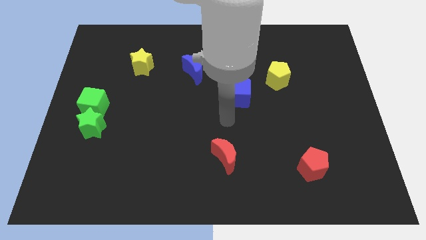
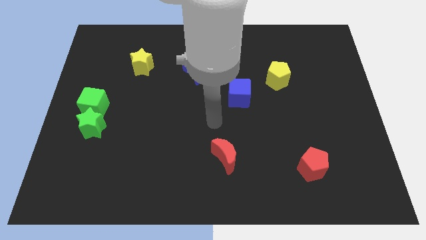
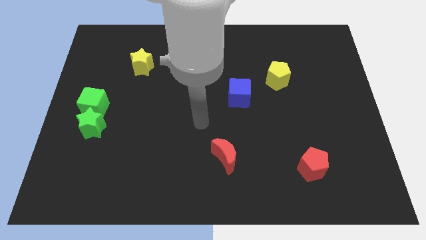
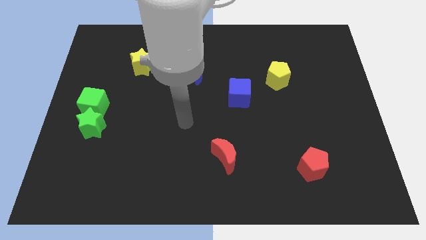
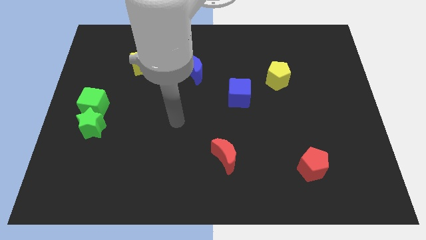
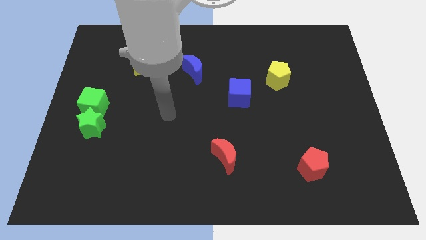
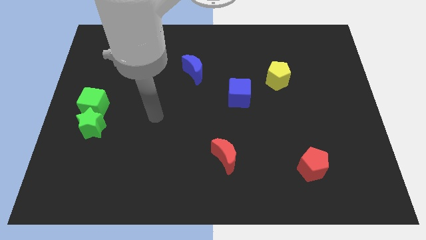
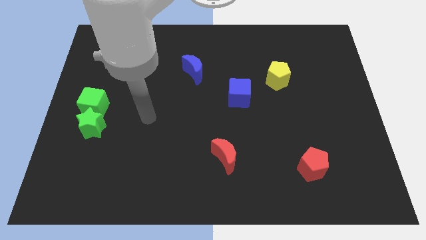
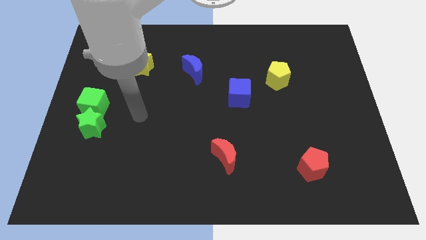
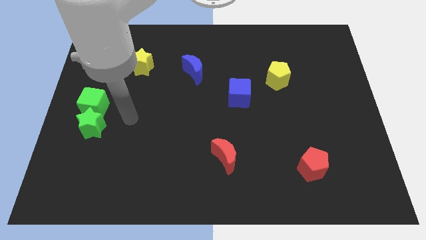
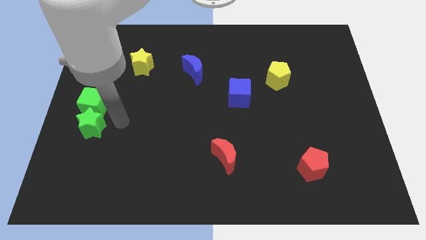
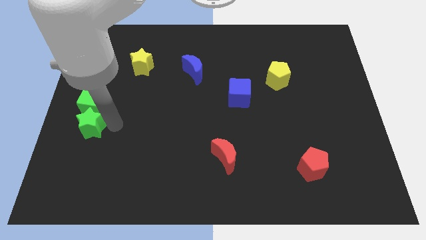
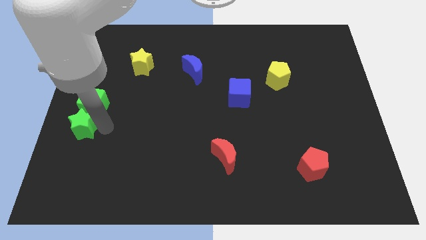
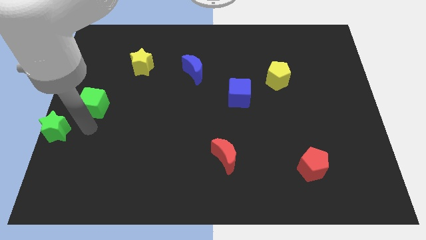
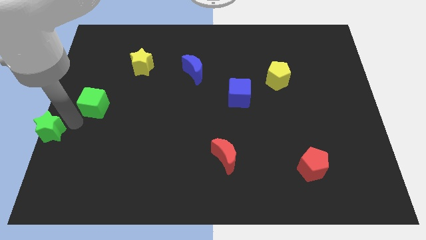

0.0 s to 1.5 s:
separate the green cube from the green star

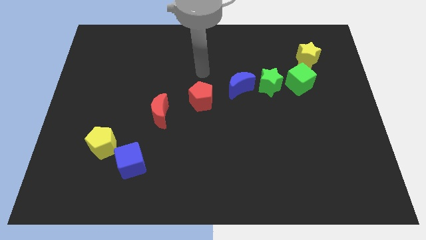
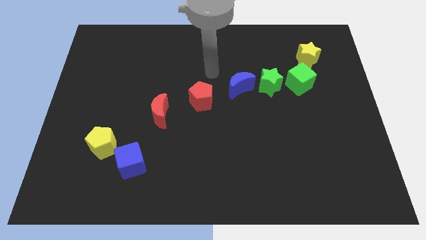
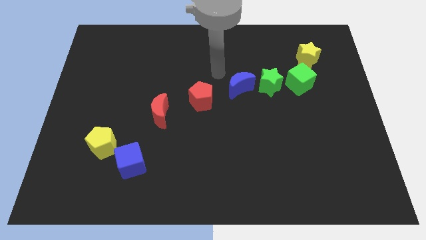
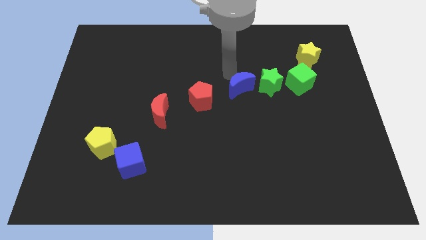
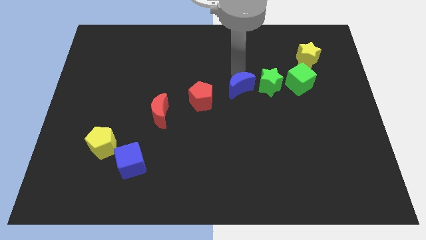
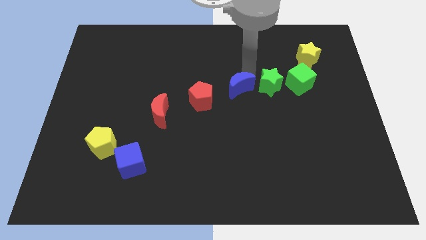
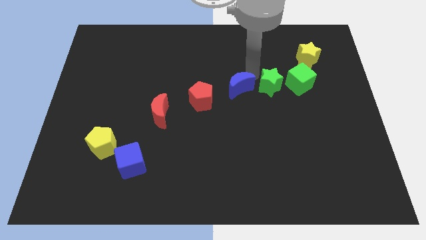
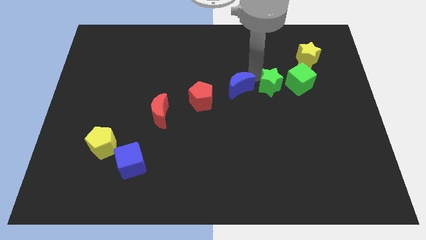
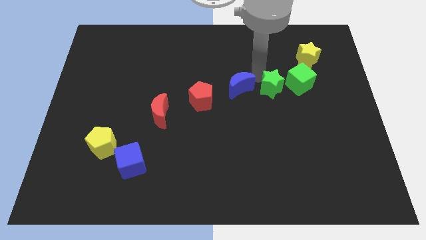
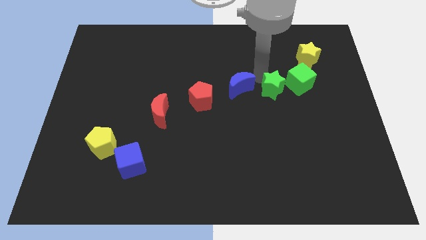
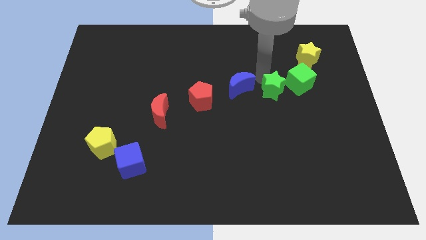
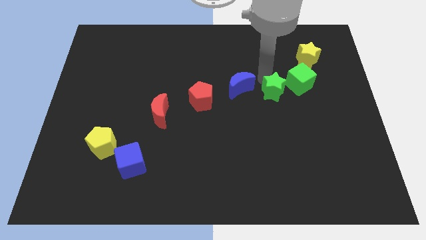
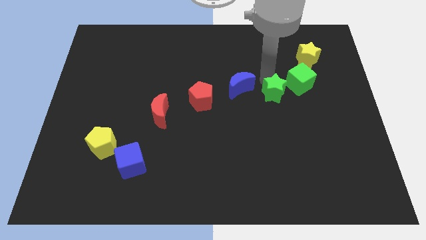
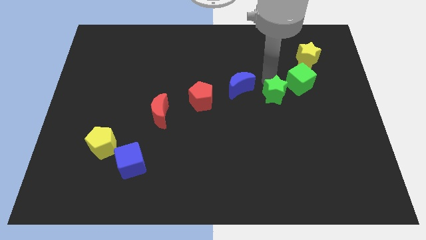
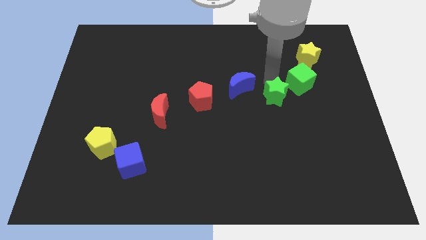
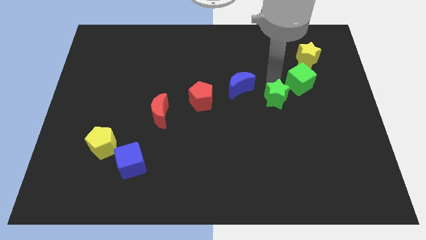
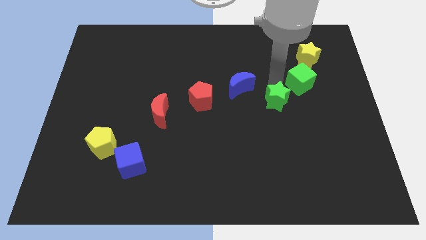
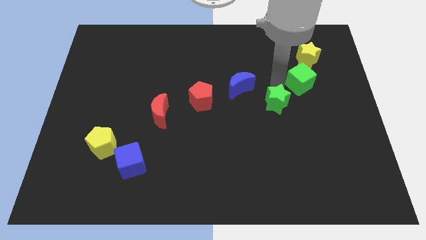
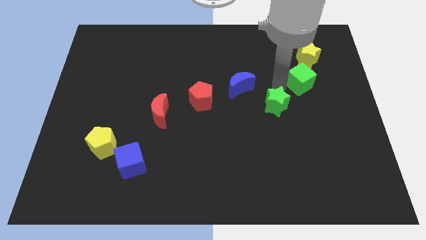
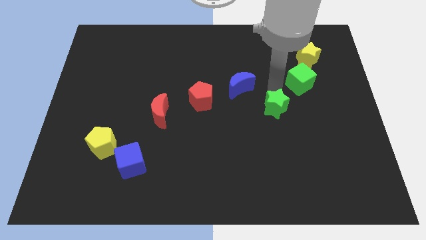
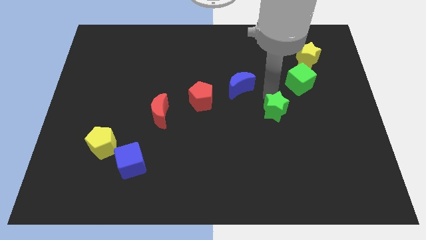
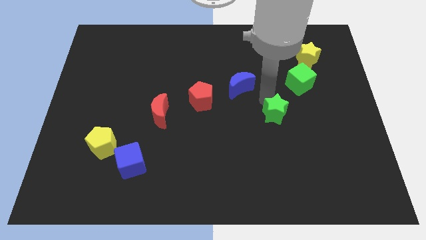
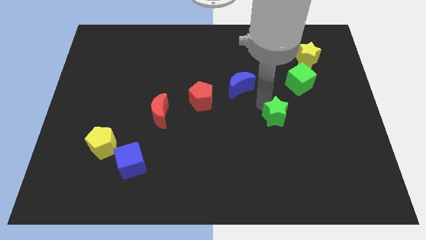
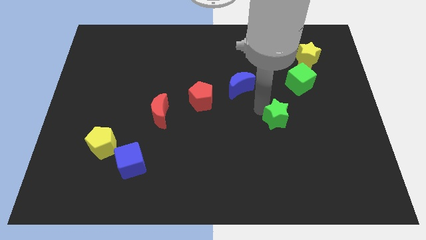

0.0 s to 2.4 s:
pull the green star apart from the green cube and blue moon

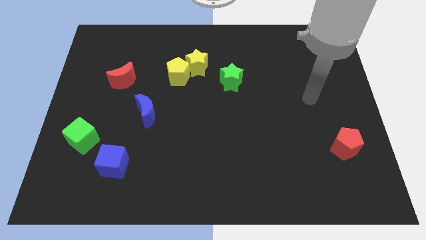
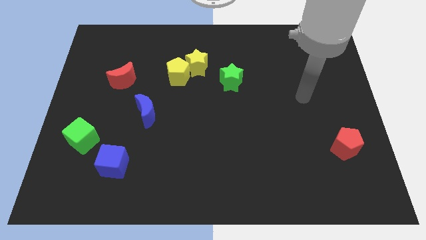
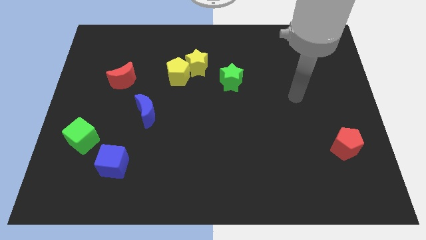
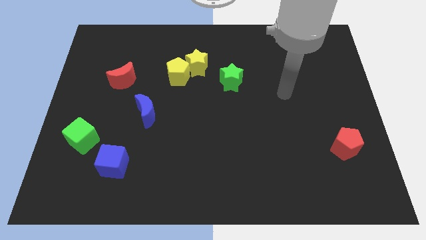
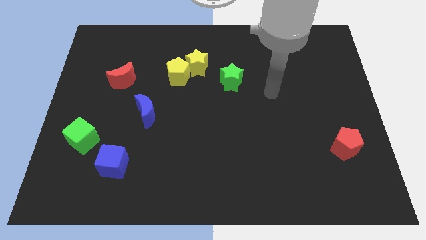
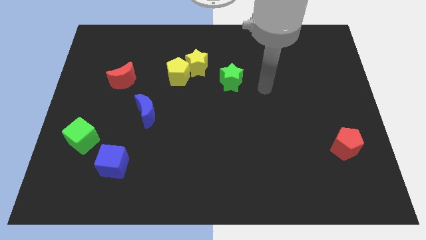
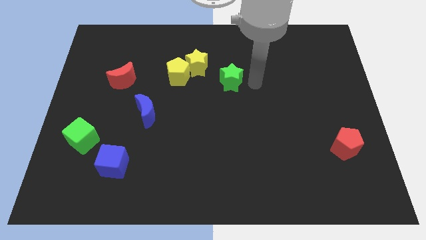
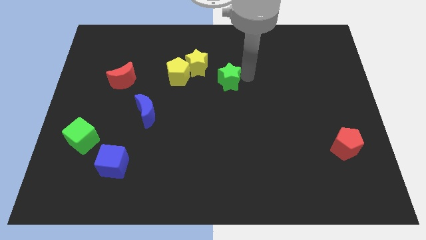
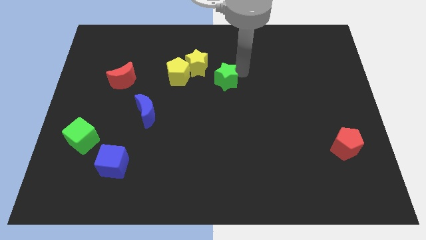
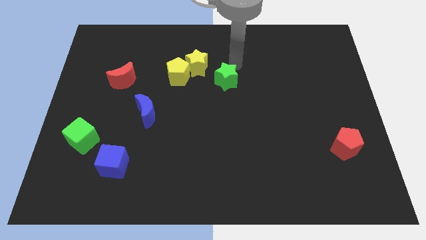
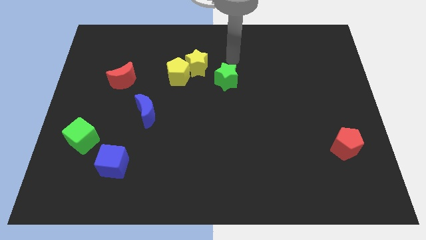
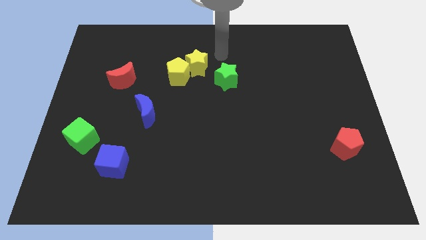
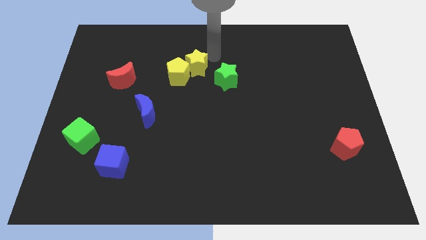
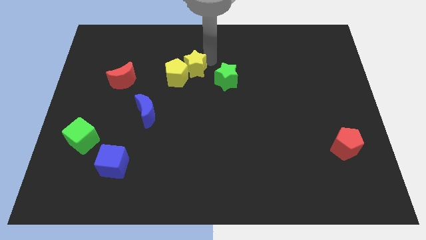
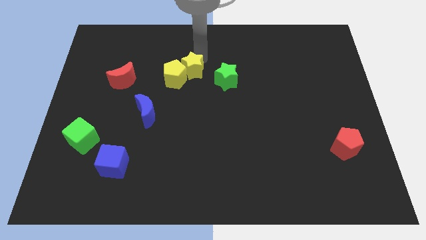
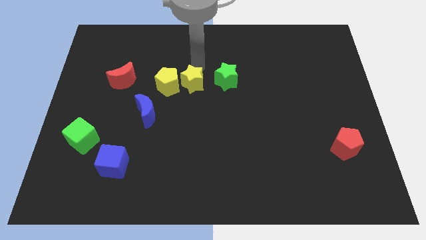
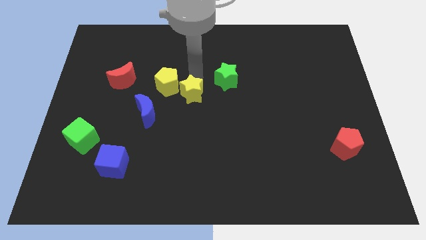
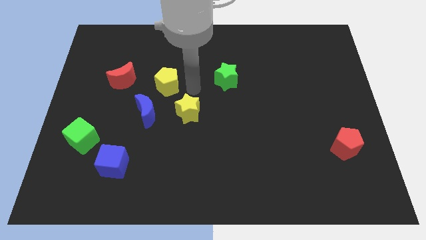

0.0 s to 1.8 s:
move the yellow pentagon away from the yellow star

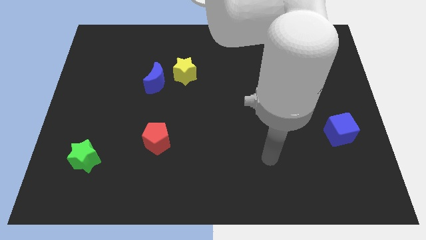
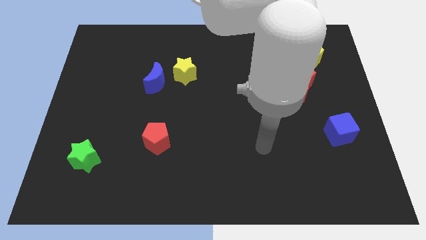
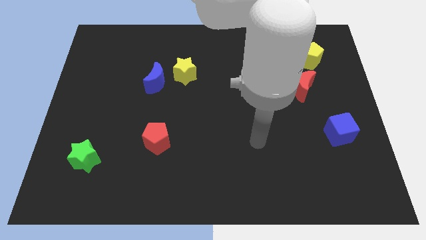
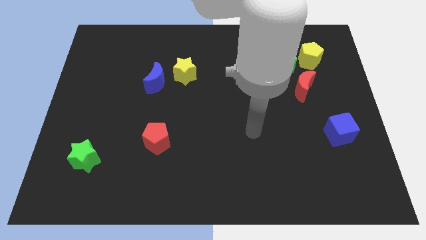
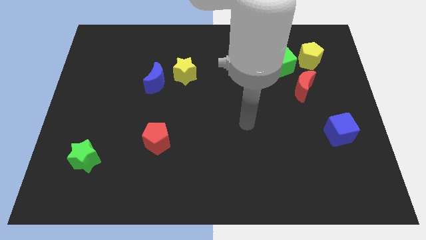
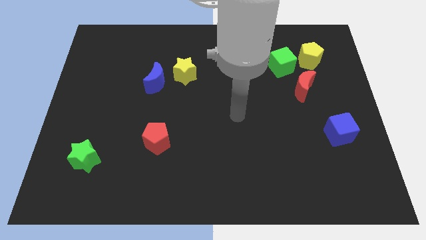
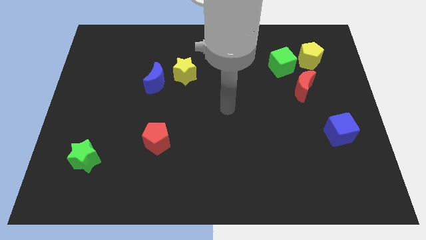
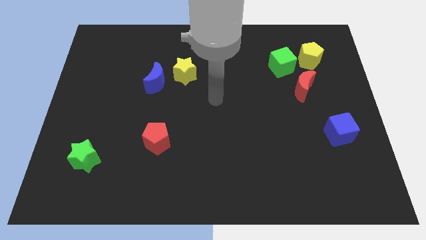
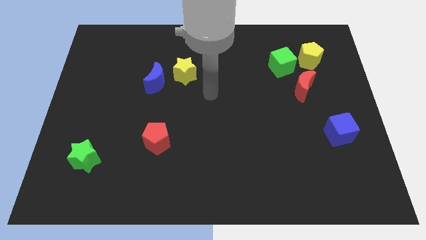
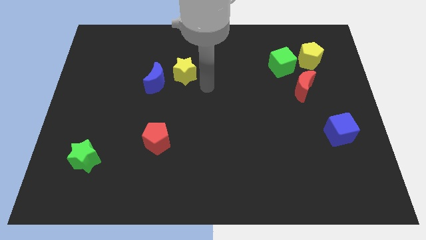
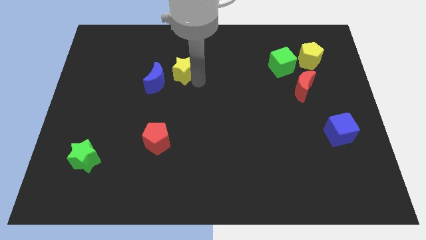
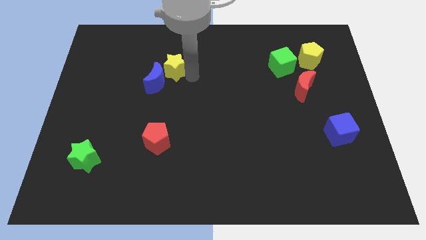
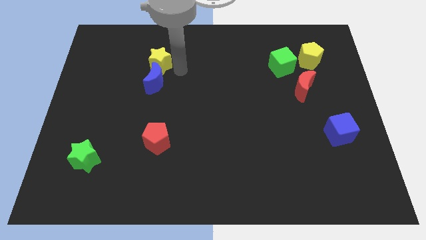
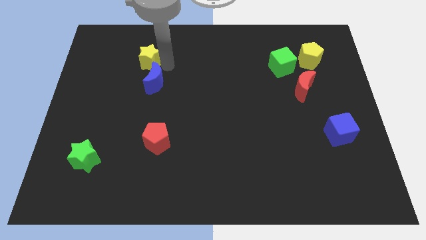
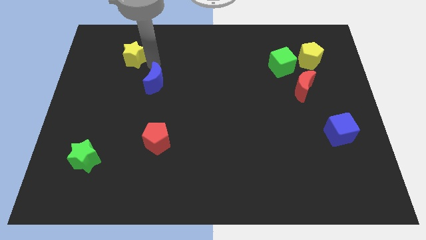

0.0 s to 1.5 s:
separate the blue moon from the yellow star

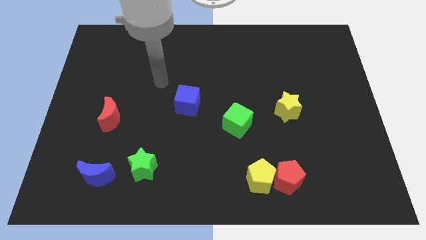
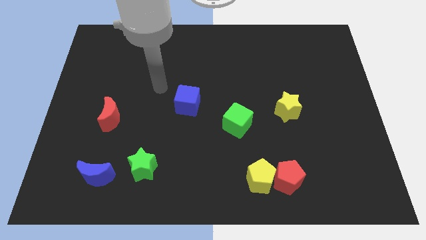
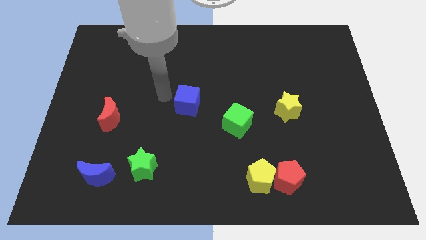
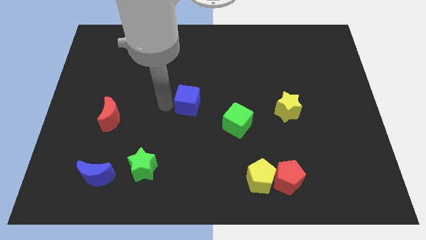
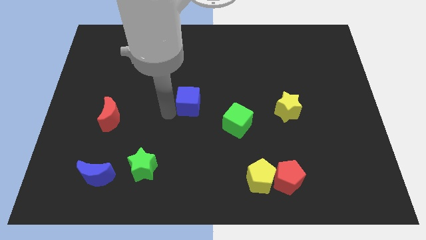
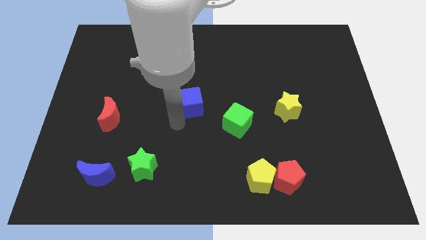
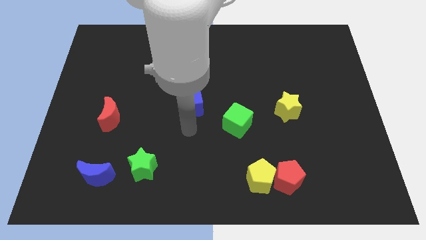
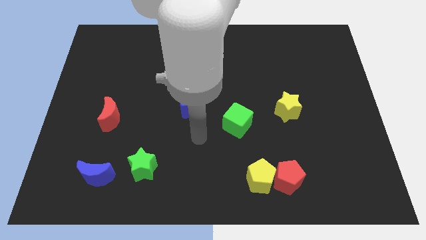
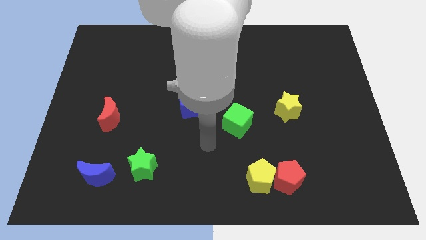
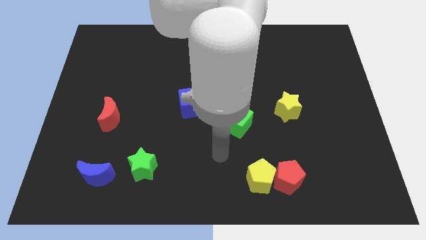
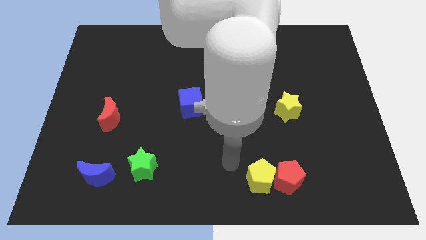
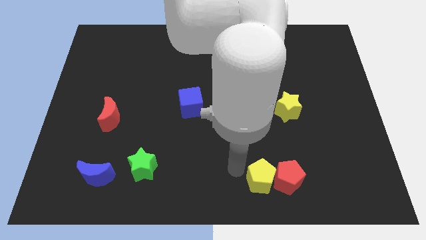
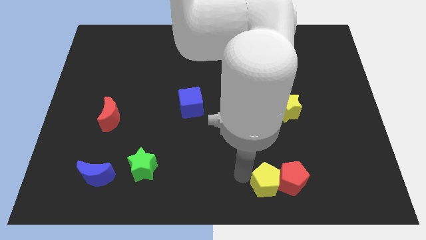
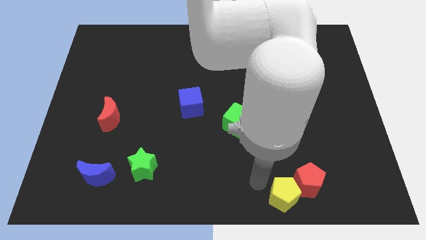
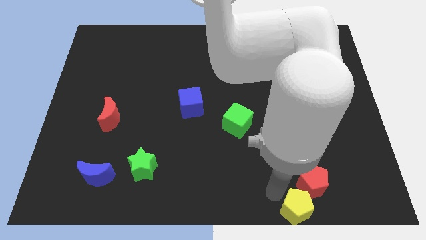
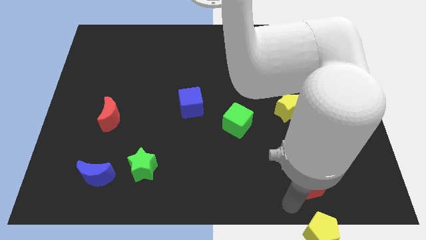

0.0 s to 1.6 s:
move the red pentagon away from the yellow pentagon

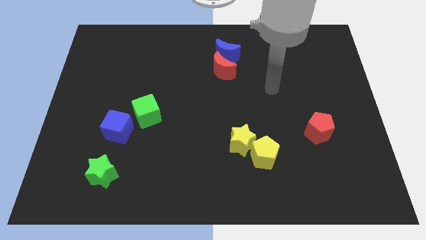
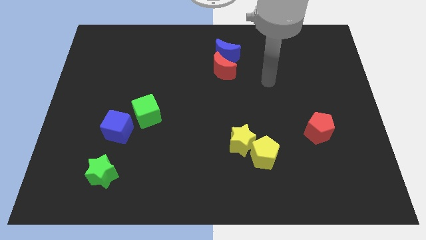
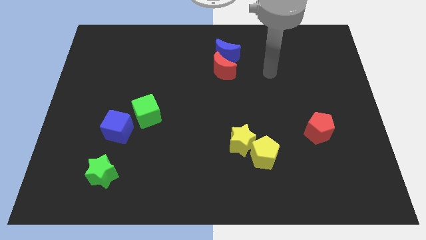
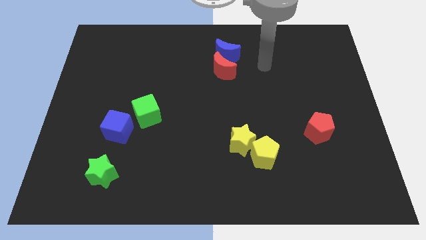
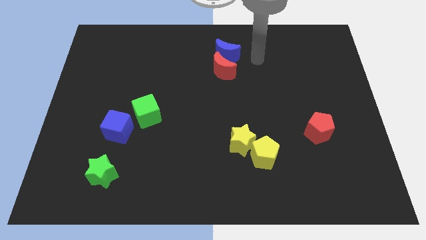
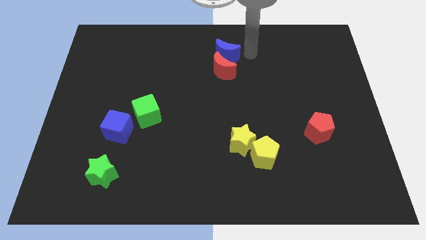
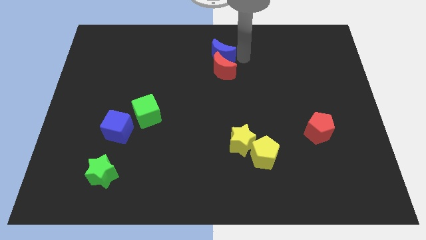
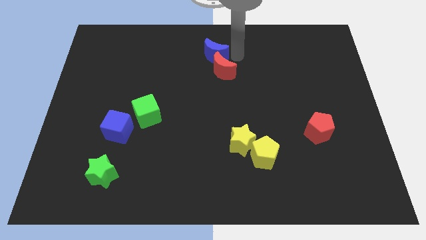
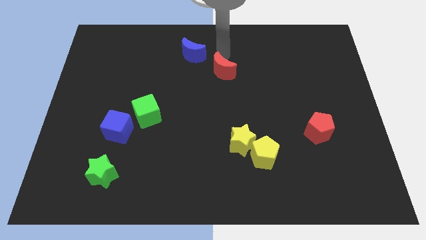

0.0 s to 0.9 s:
separate the red moon from the blue moon
